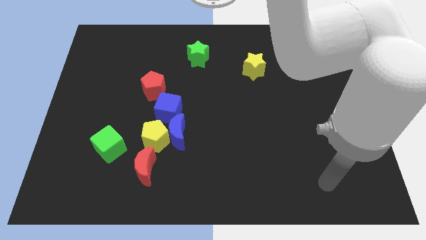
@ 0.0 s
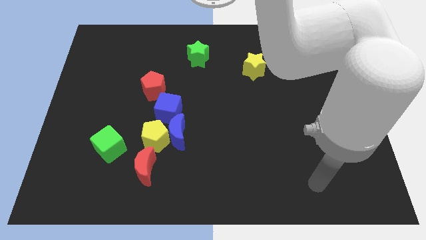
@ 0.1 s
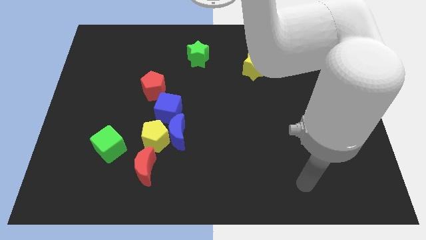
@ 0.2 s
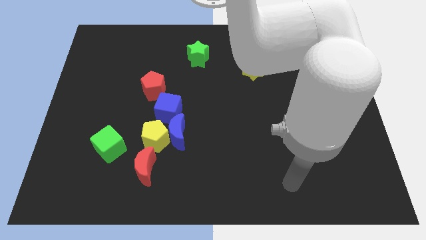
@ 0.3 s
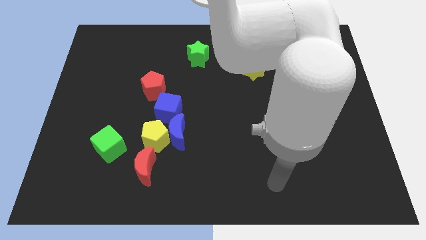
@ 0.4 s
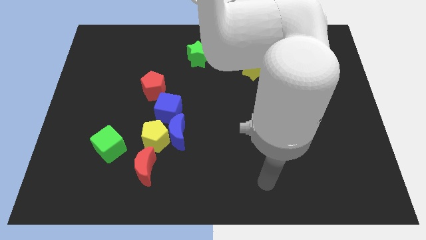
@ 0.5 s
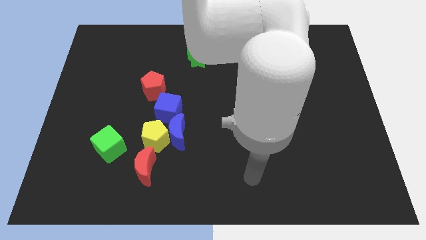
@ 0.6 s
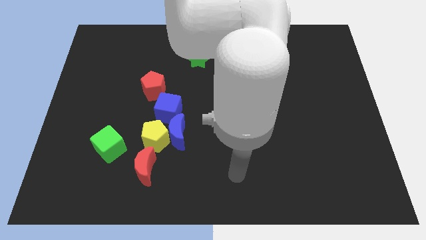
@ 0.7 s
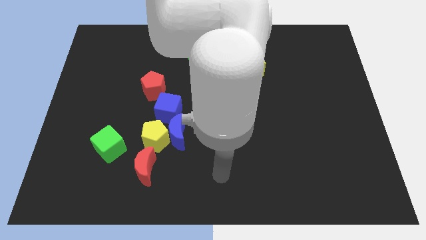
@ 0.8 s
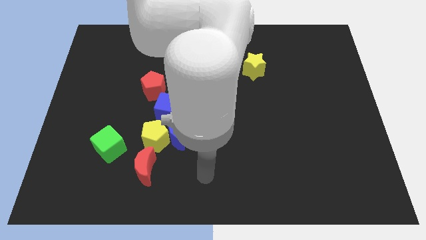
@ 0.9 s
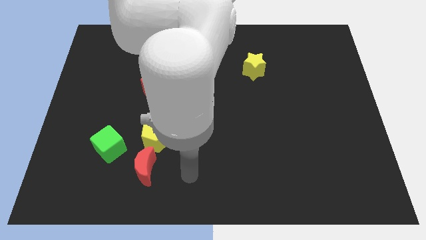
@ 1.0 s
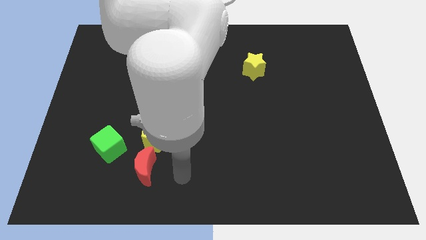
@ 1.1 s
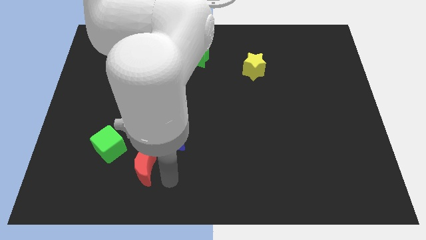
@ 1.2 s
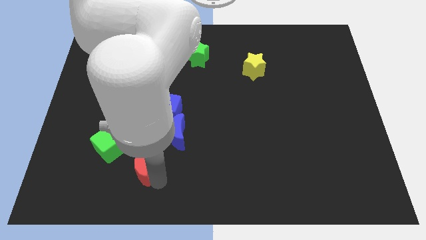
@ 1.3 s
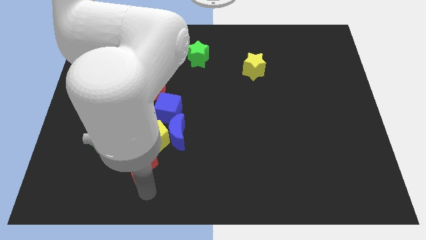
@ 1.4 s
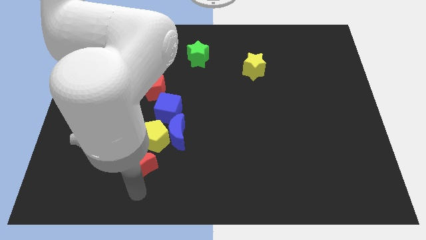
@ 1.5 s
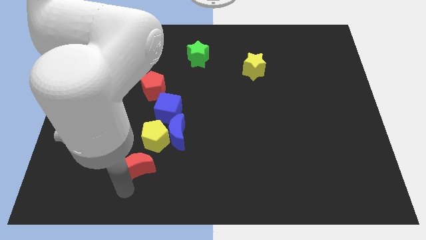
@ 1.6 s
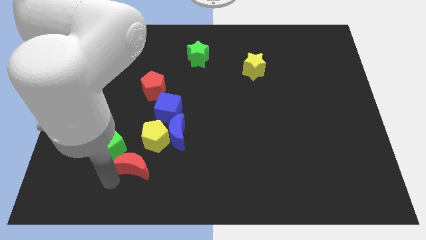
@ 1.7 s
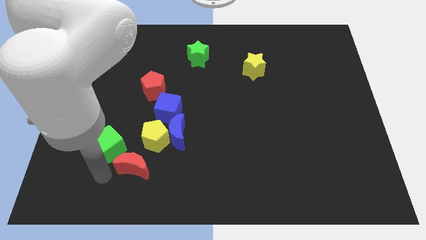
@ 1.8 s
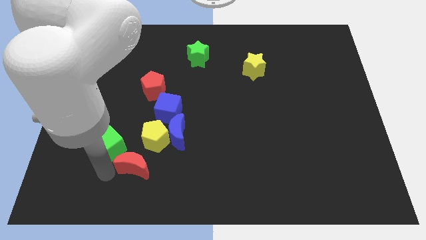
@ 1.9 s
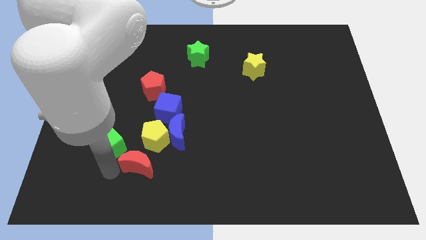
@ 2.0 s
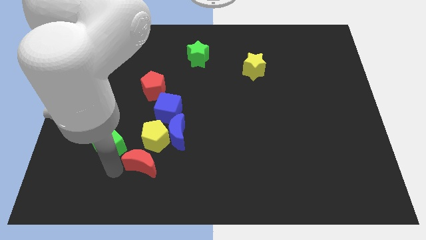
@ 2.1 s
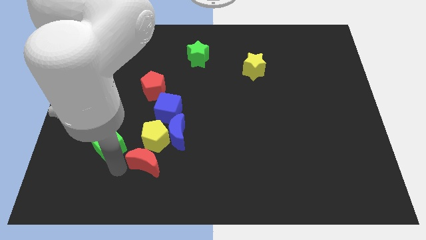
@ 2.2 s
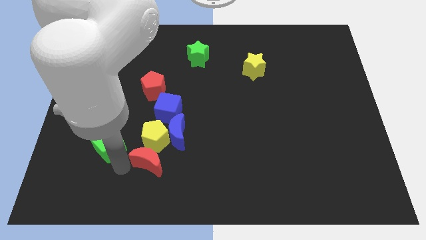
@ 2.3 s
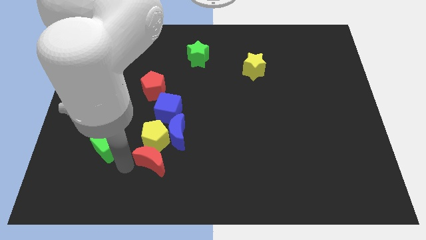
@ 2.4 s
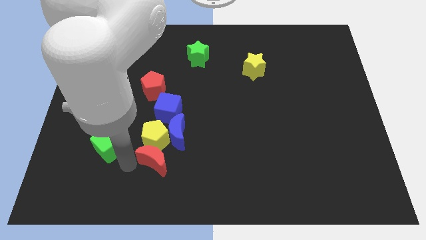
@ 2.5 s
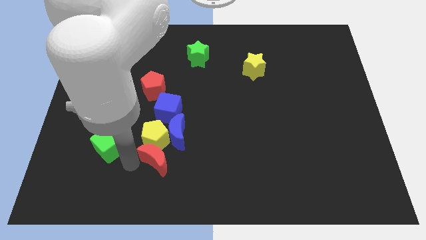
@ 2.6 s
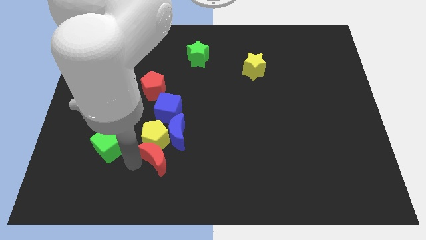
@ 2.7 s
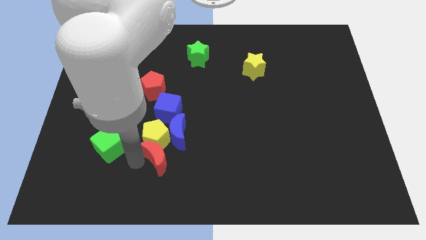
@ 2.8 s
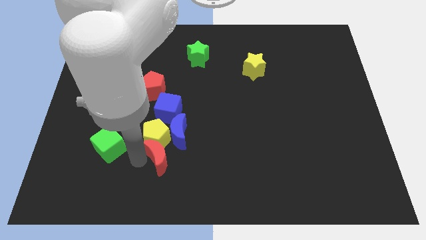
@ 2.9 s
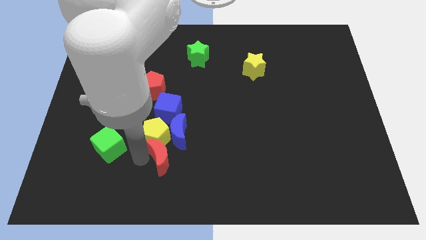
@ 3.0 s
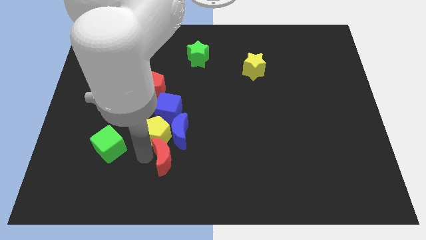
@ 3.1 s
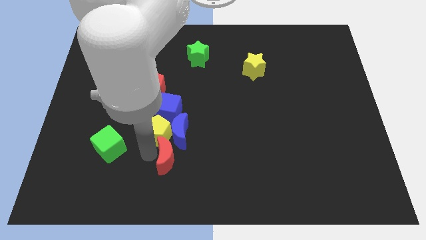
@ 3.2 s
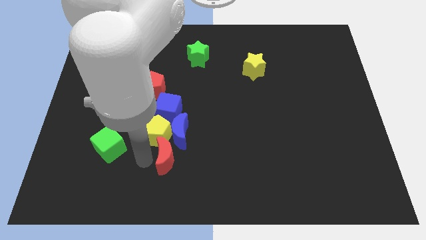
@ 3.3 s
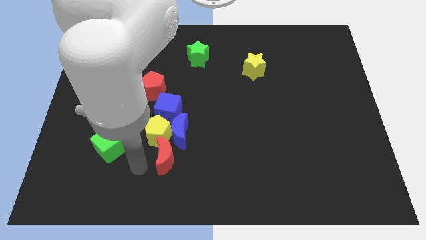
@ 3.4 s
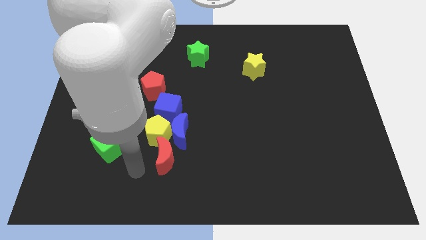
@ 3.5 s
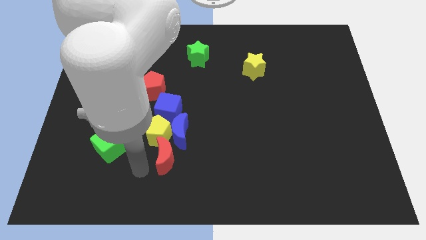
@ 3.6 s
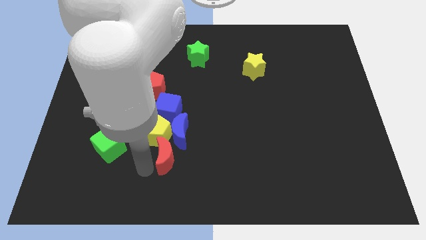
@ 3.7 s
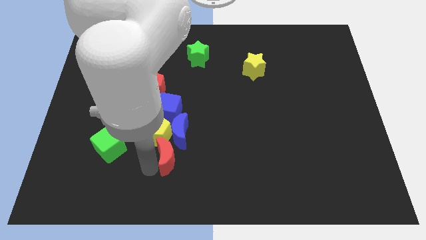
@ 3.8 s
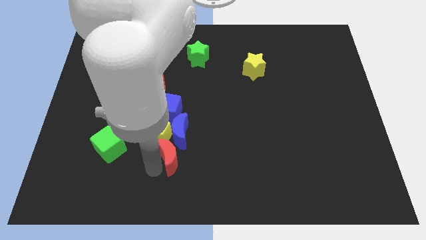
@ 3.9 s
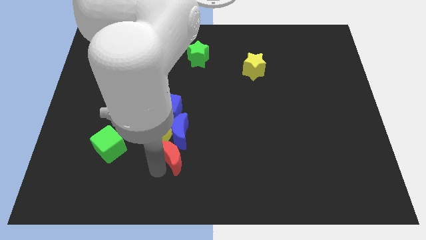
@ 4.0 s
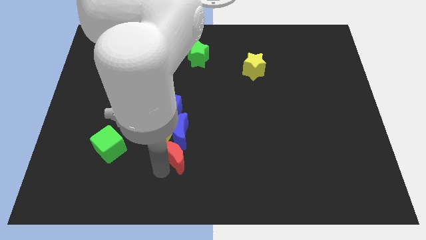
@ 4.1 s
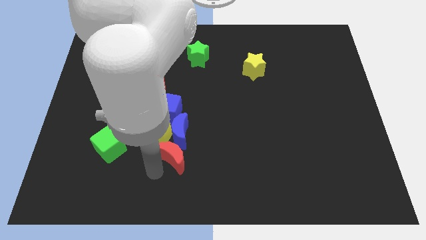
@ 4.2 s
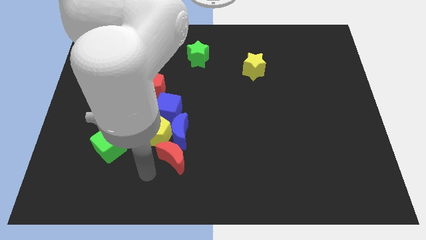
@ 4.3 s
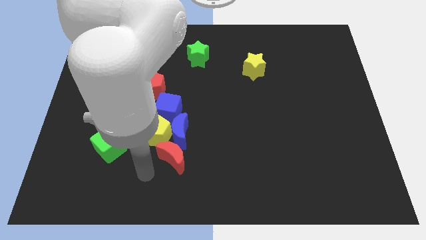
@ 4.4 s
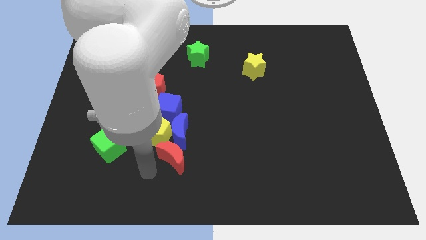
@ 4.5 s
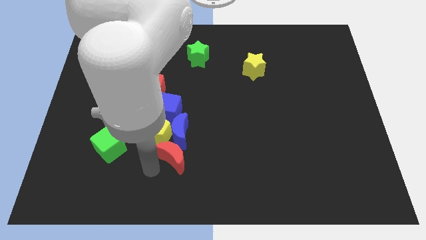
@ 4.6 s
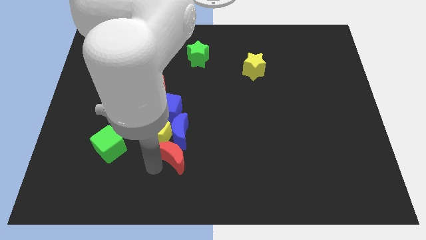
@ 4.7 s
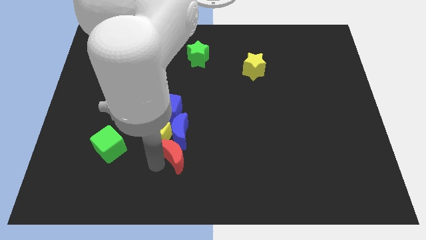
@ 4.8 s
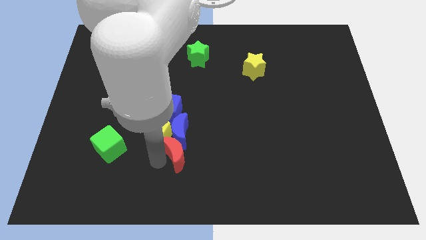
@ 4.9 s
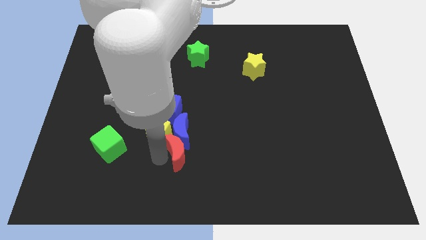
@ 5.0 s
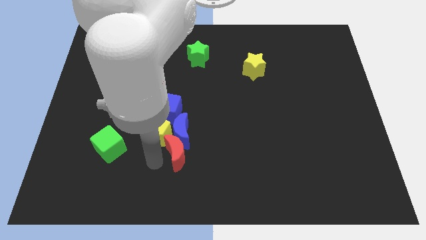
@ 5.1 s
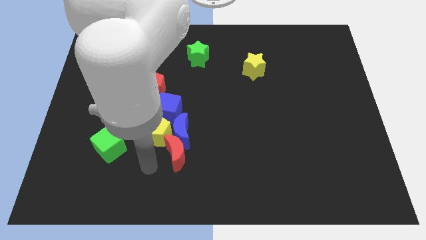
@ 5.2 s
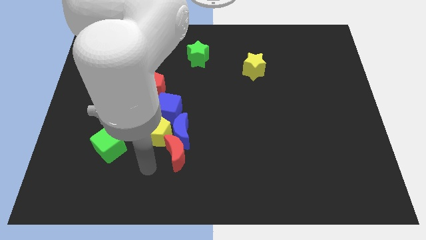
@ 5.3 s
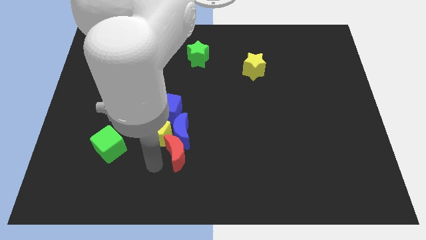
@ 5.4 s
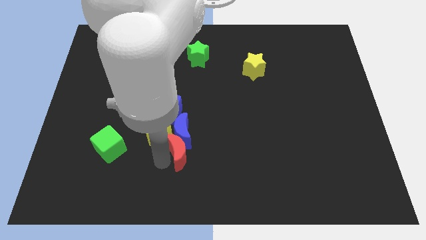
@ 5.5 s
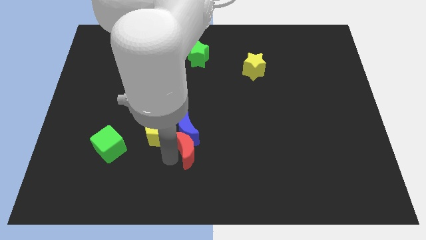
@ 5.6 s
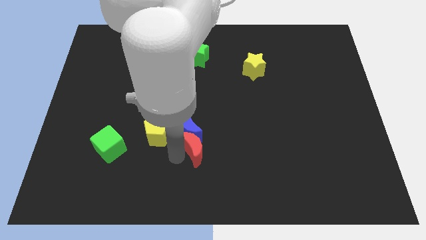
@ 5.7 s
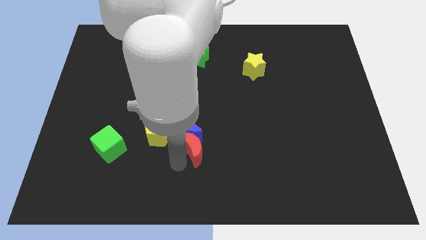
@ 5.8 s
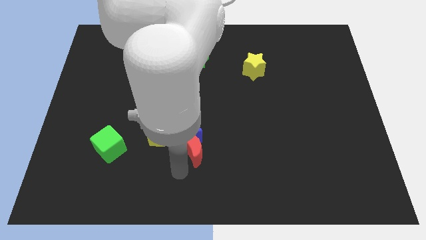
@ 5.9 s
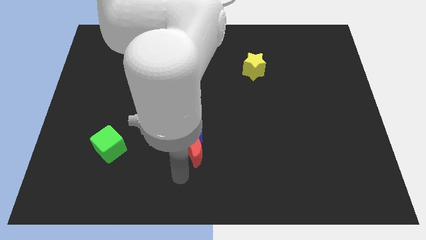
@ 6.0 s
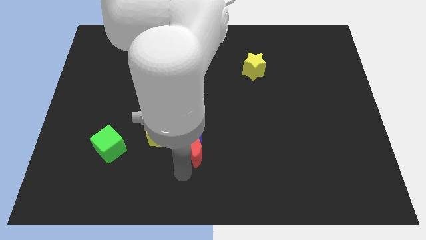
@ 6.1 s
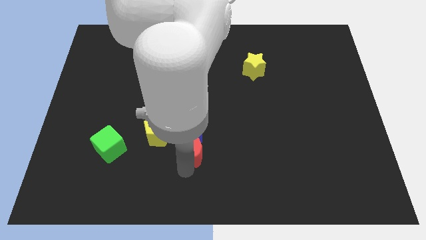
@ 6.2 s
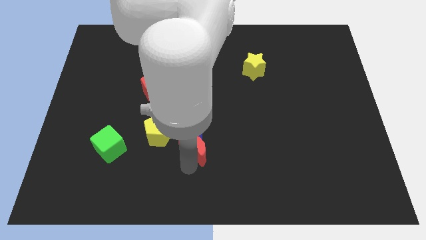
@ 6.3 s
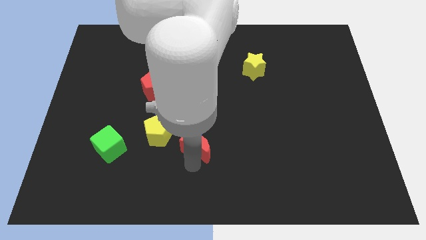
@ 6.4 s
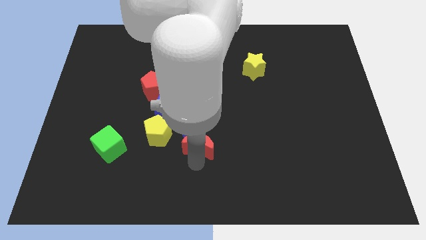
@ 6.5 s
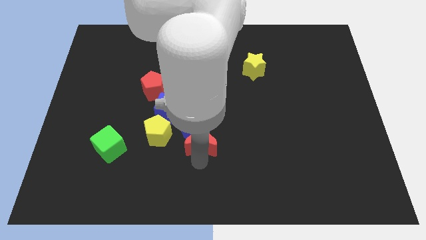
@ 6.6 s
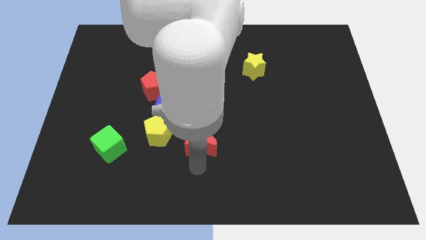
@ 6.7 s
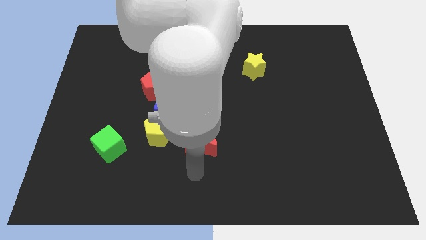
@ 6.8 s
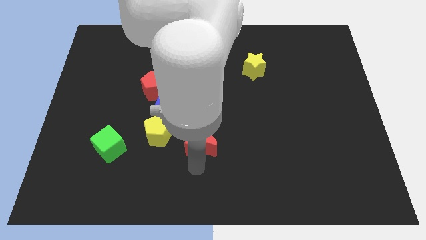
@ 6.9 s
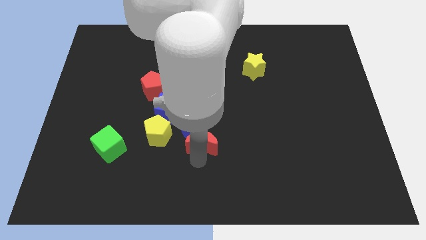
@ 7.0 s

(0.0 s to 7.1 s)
put the red moon to the middle
